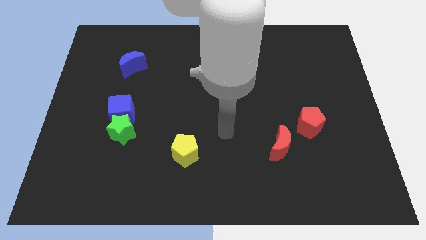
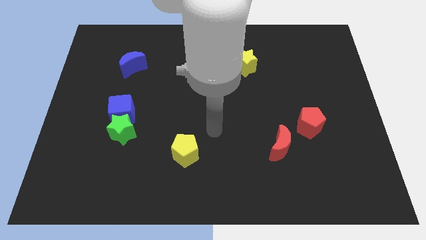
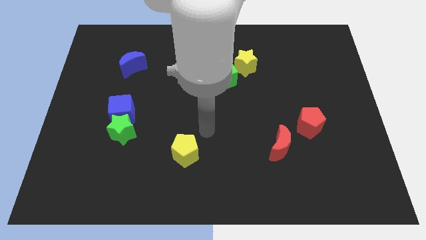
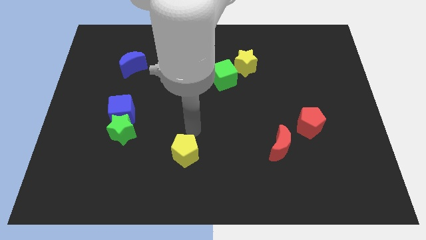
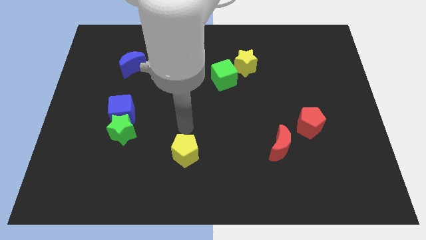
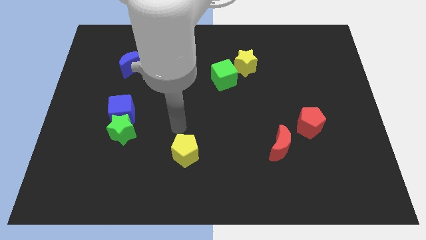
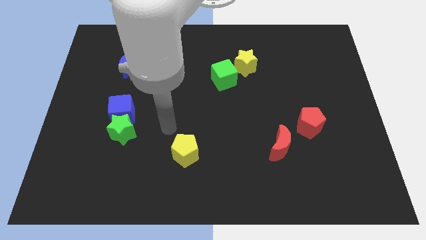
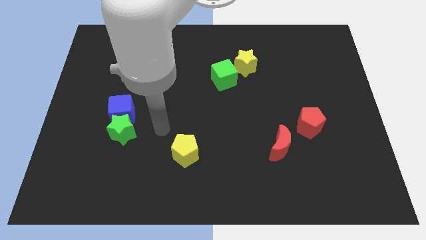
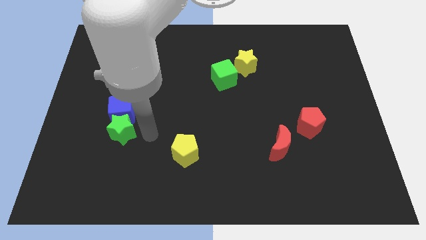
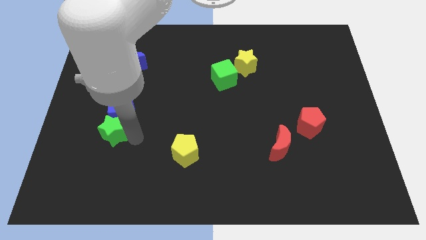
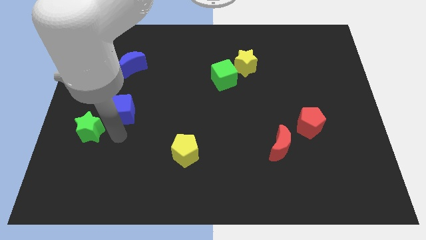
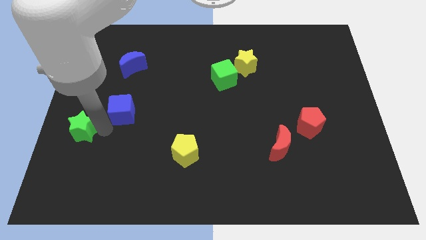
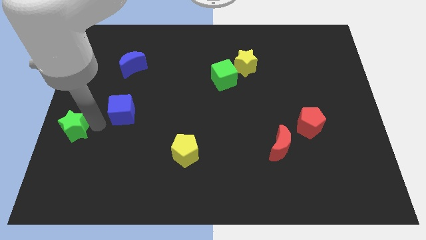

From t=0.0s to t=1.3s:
separate the blue cube from the green star

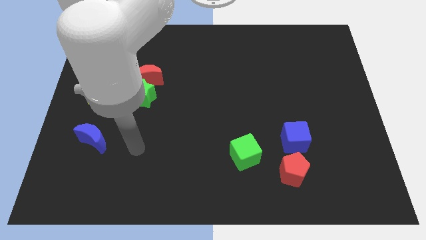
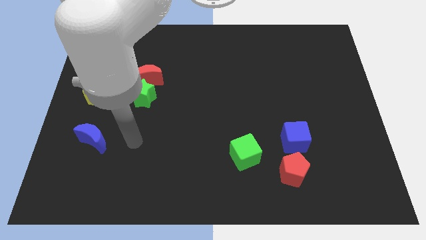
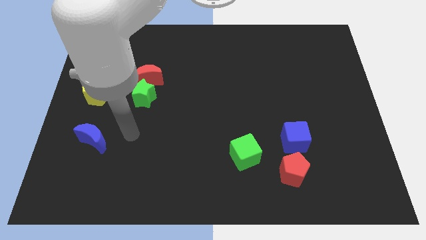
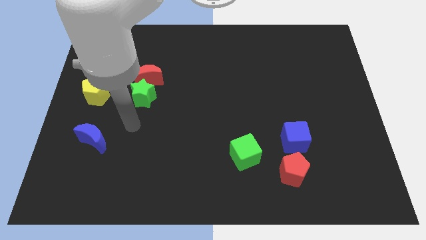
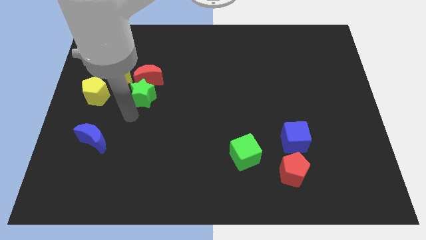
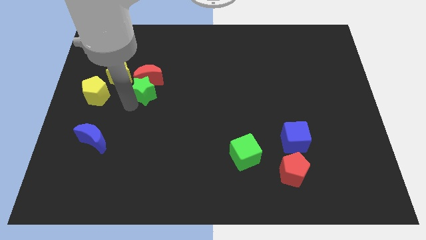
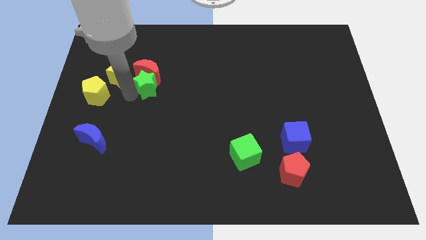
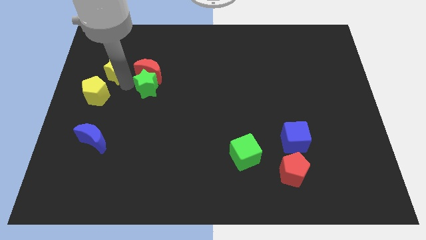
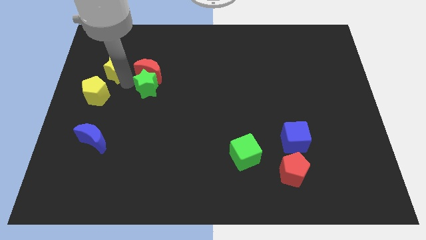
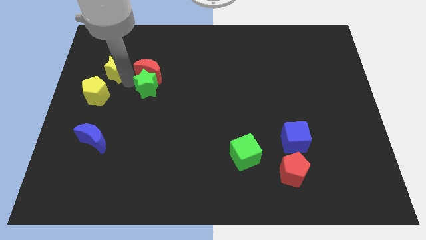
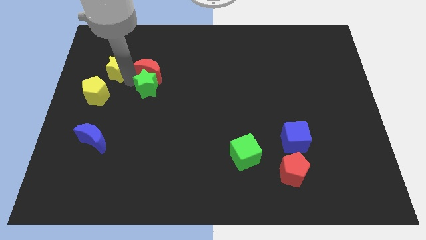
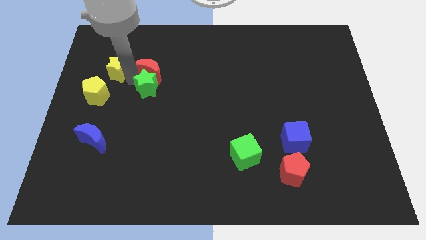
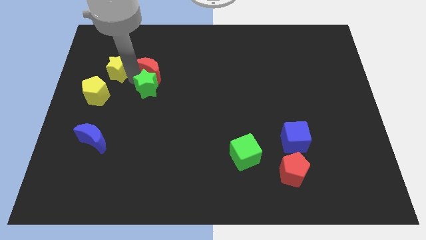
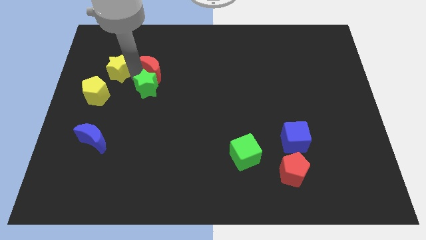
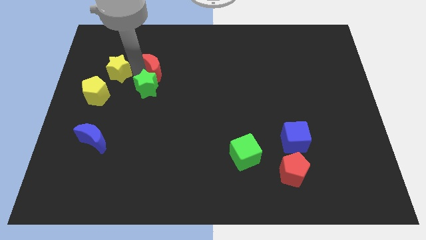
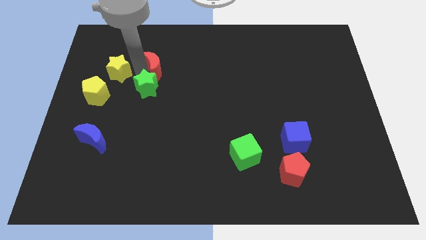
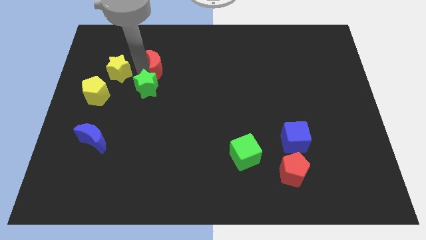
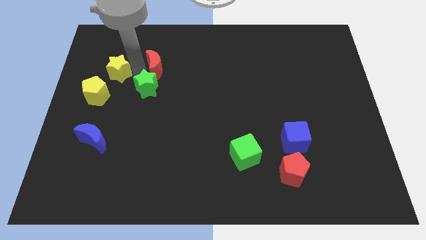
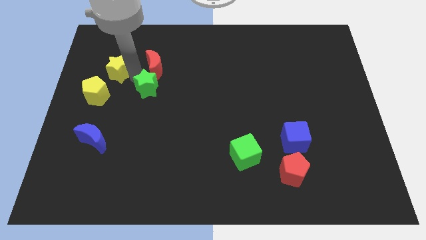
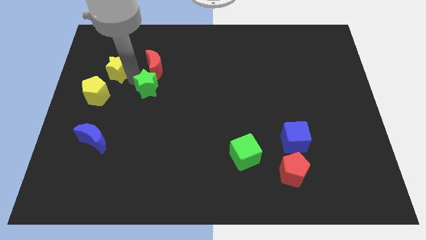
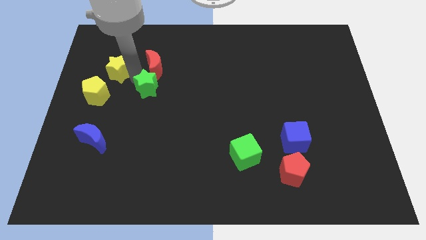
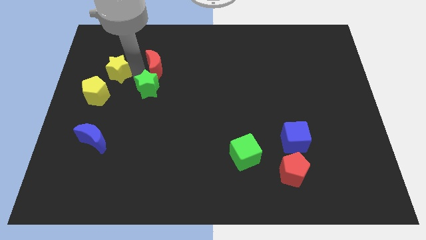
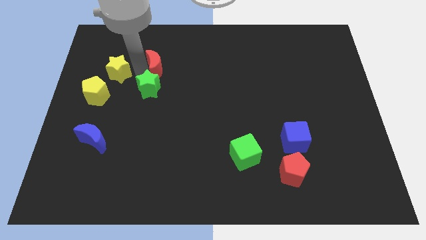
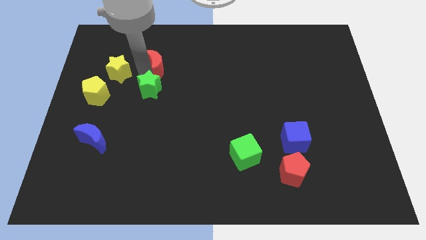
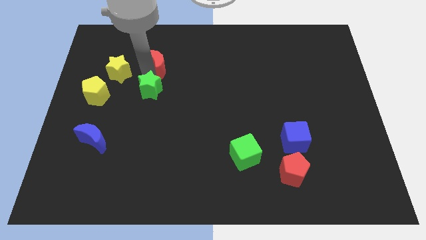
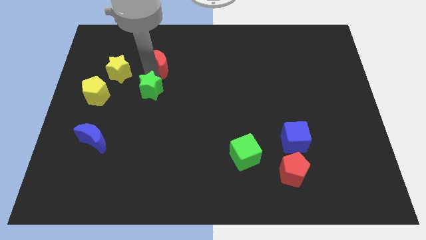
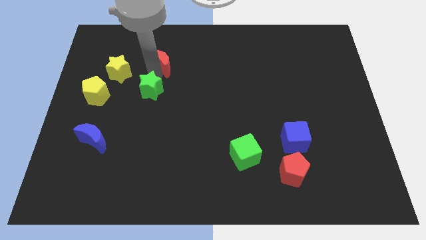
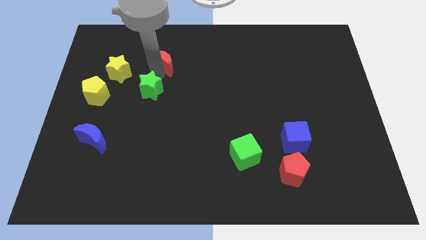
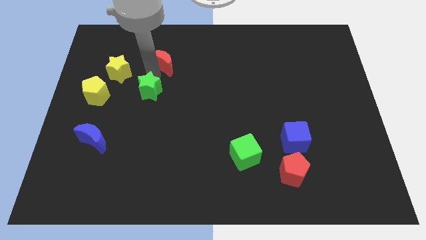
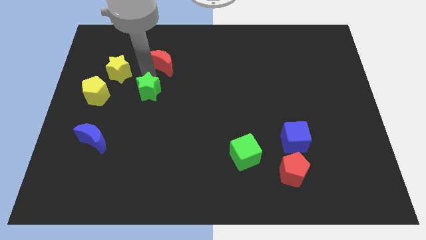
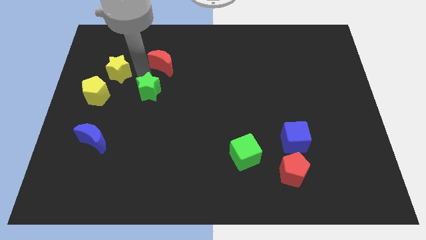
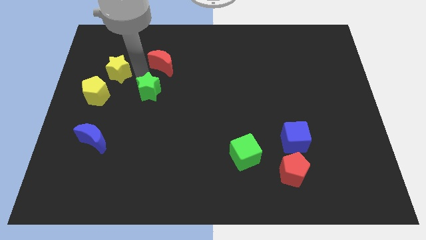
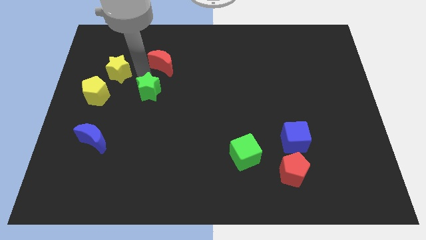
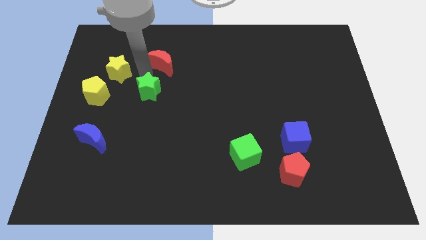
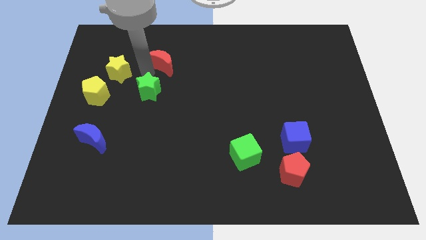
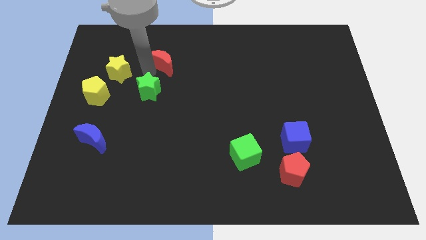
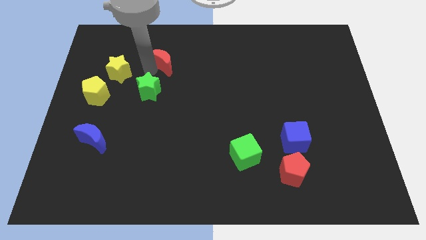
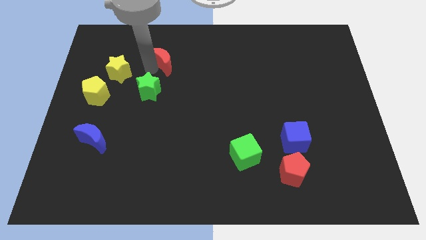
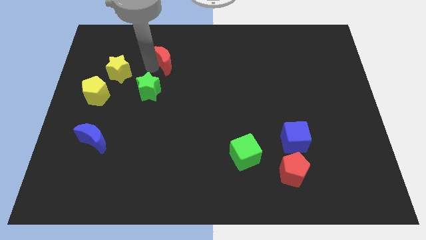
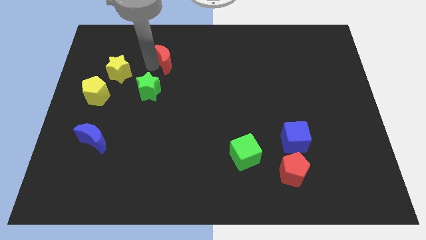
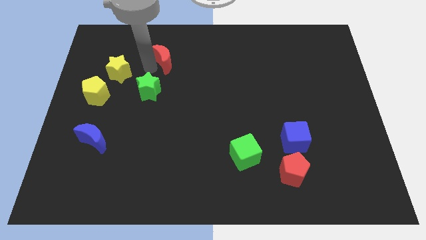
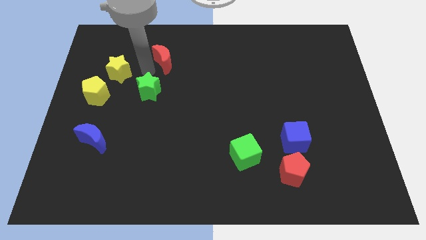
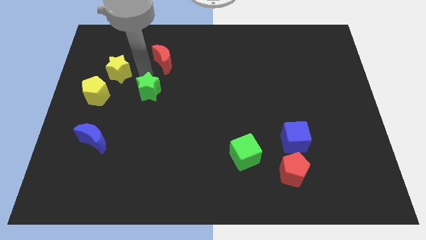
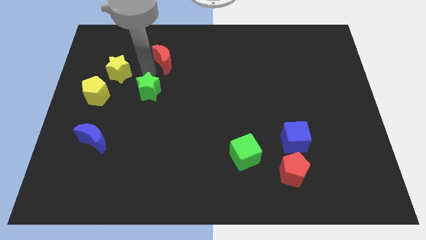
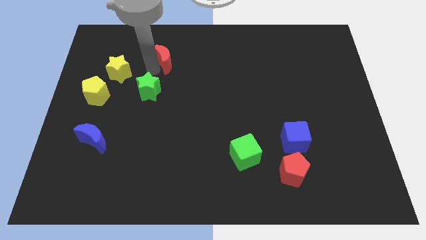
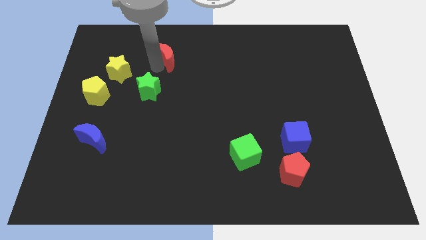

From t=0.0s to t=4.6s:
separate the red moon from the green star and yellow star

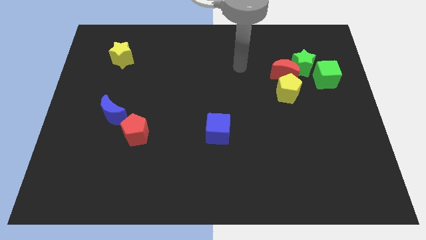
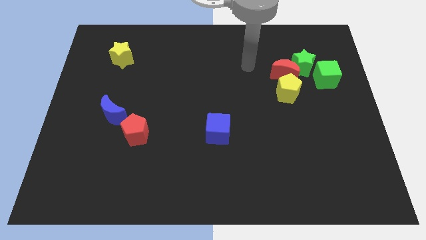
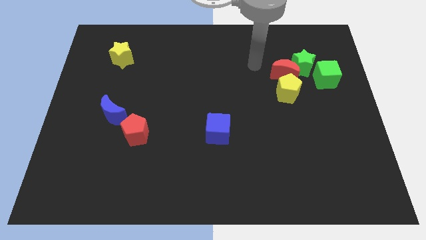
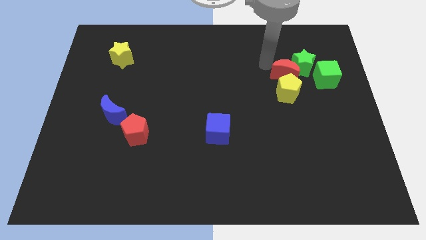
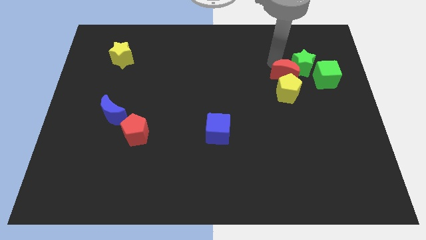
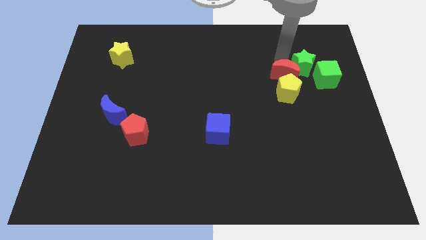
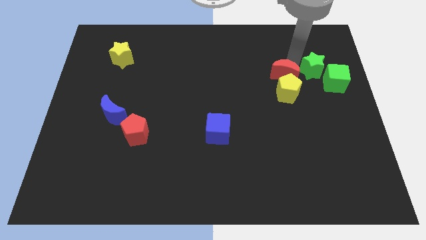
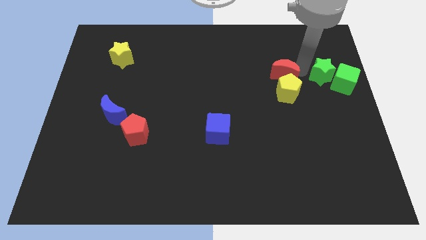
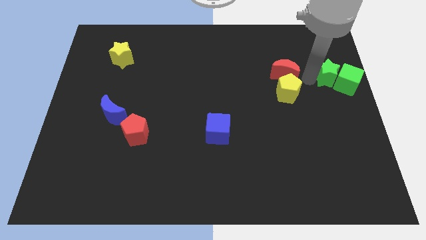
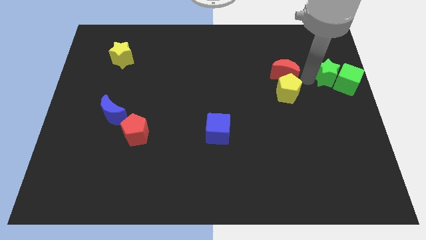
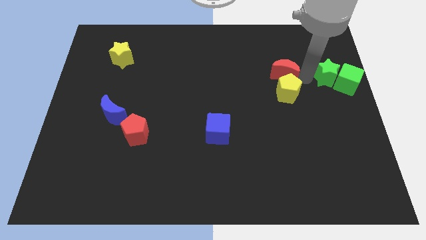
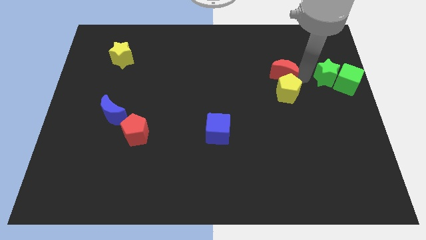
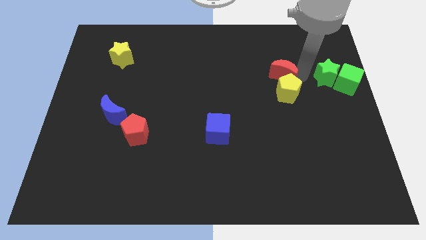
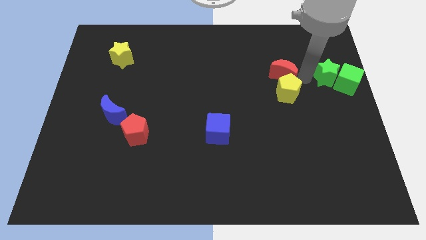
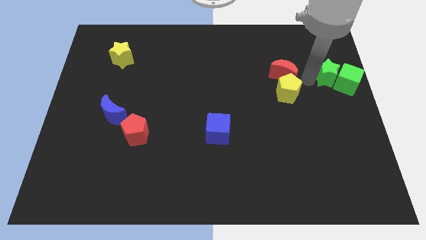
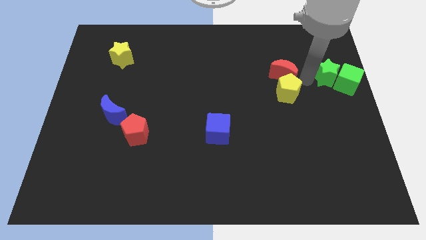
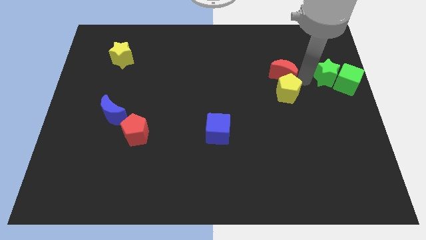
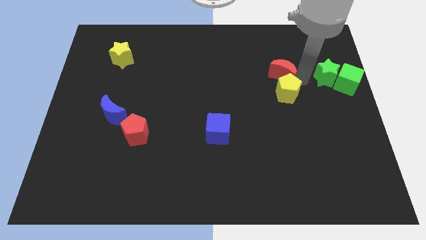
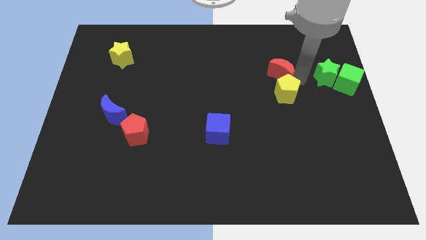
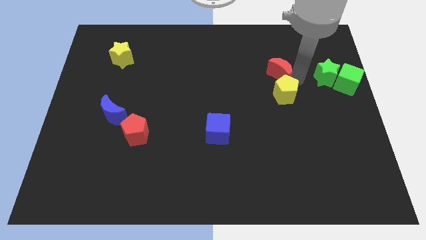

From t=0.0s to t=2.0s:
separate the red moon from the green star, yellow pentagon, and green cube

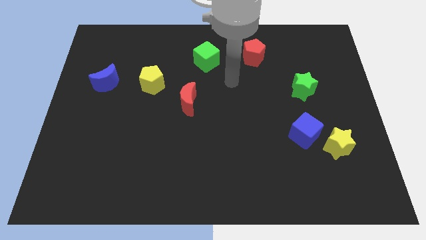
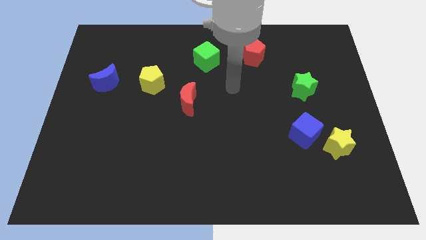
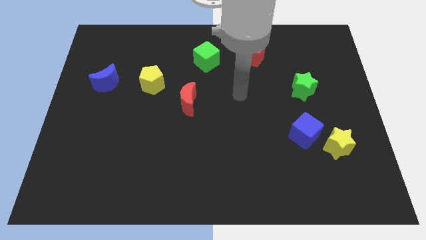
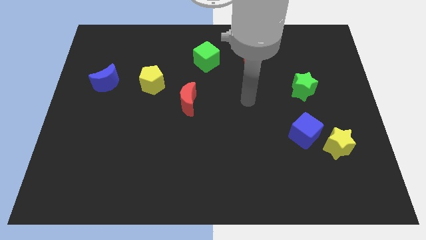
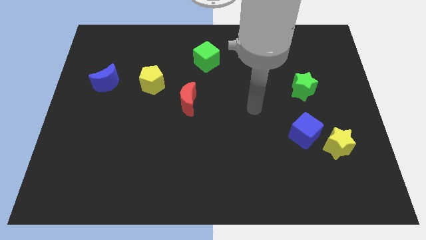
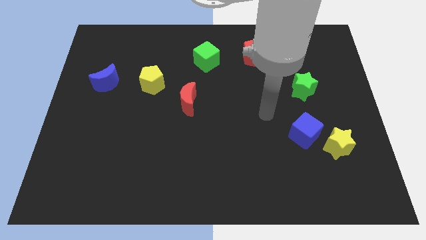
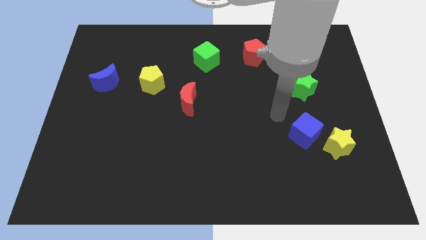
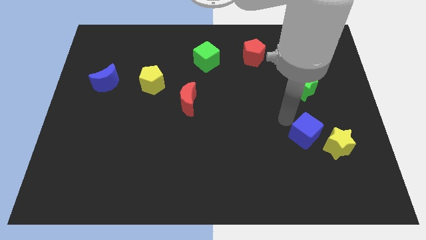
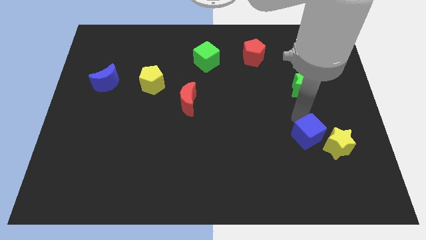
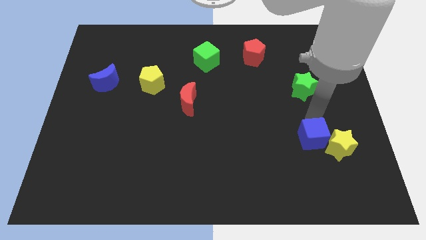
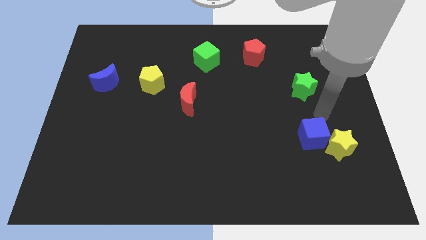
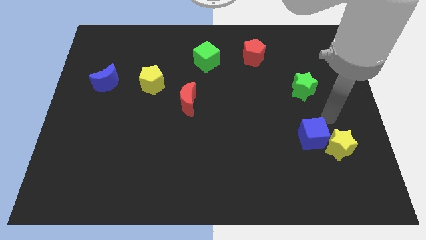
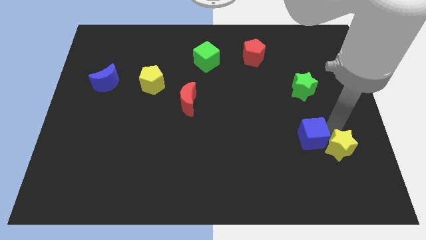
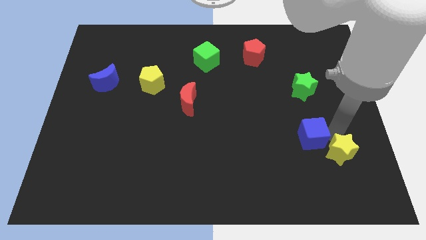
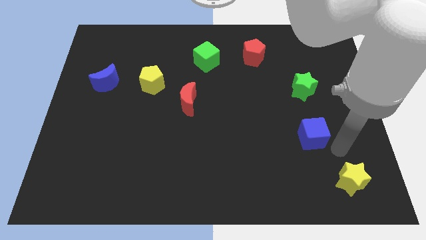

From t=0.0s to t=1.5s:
separate the blue cube from the yellow star
